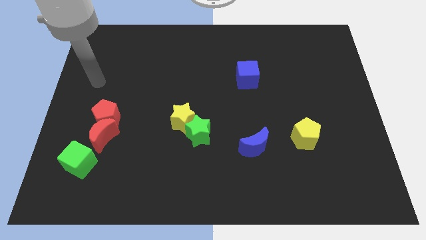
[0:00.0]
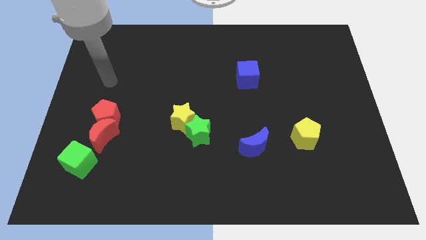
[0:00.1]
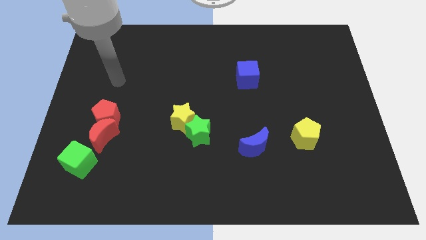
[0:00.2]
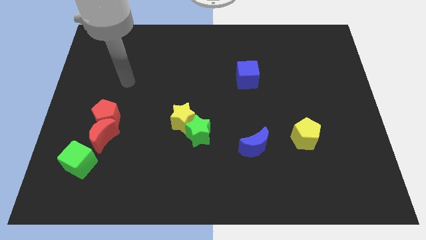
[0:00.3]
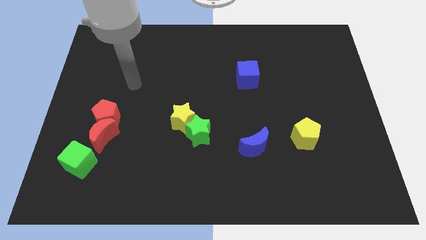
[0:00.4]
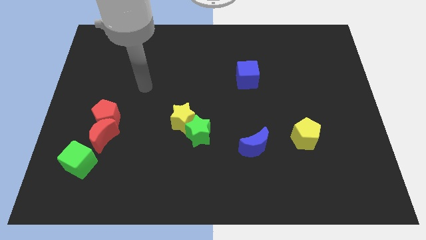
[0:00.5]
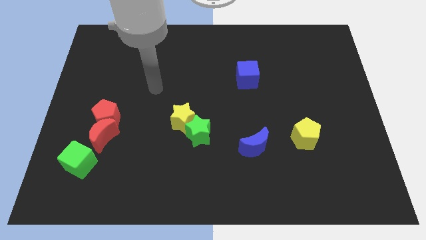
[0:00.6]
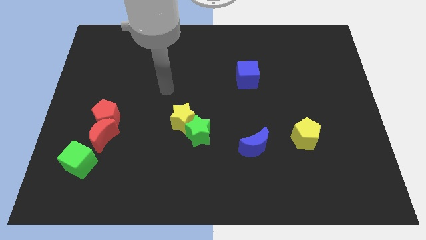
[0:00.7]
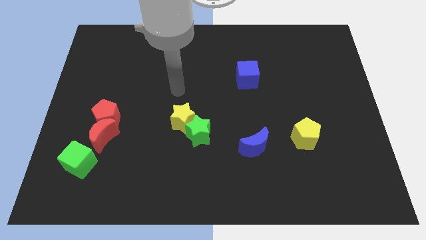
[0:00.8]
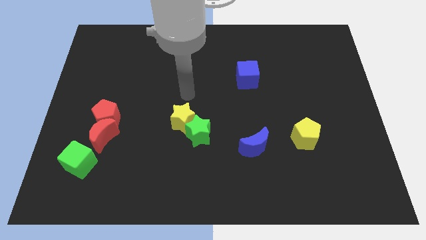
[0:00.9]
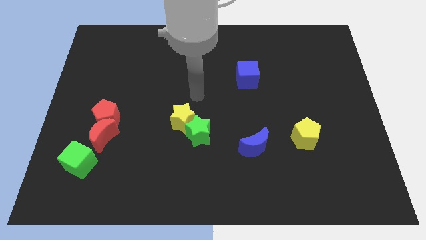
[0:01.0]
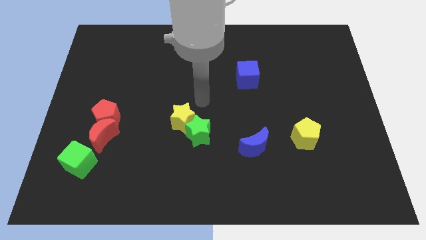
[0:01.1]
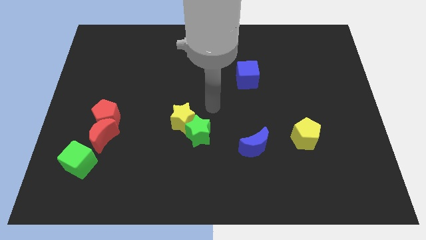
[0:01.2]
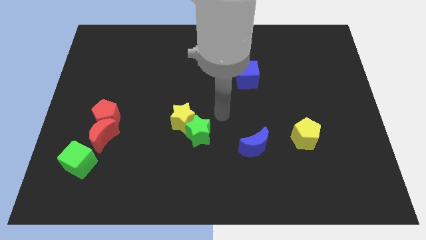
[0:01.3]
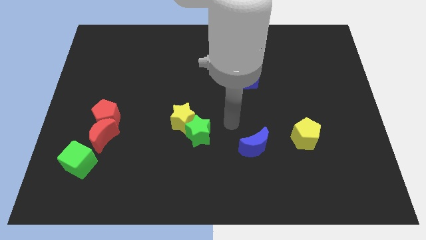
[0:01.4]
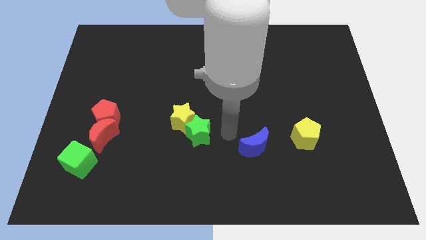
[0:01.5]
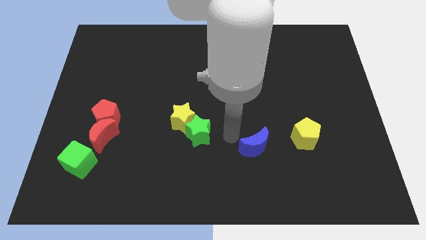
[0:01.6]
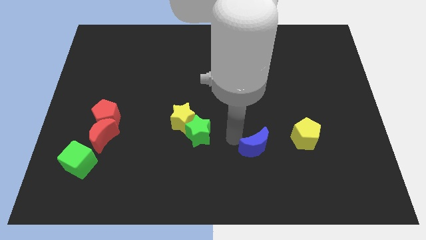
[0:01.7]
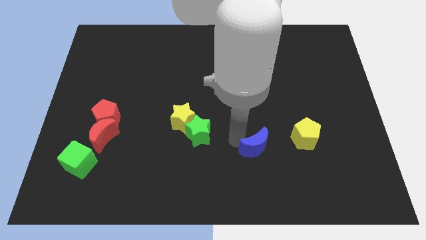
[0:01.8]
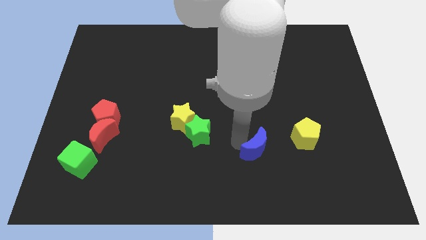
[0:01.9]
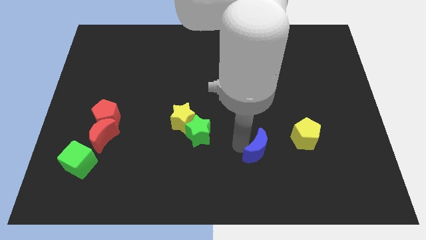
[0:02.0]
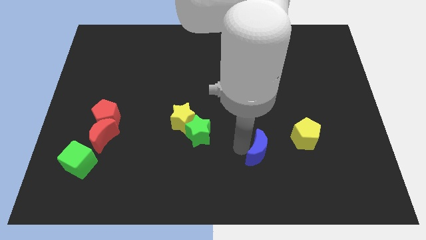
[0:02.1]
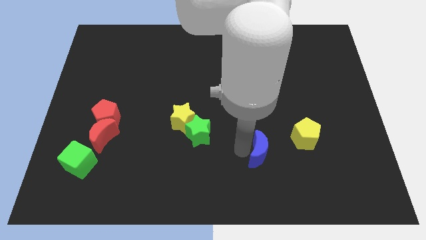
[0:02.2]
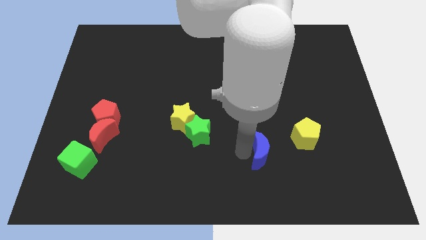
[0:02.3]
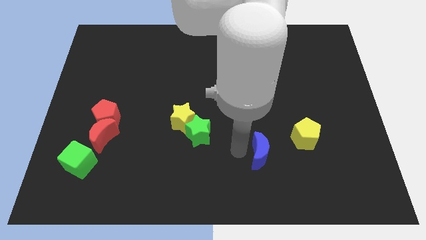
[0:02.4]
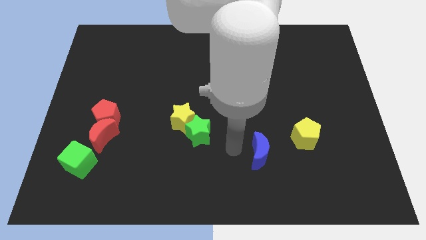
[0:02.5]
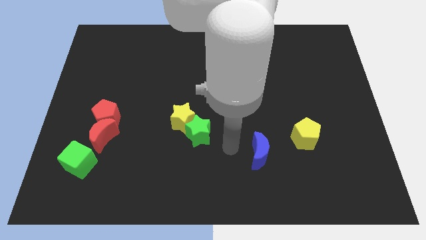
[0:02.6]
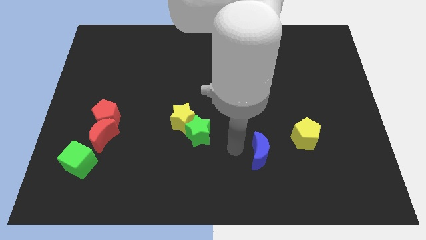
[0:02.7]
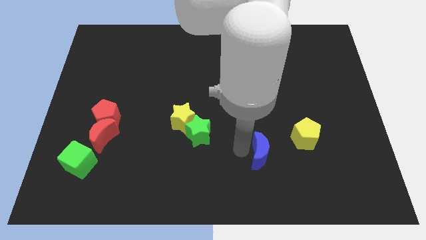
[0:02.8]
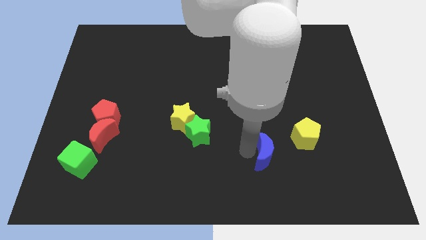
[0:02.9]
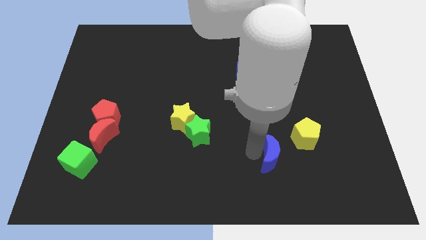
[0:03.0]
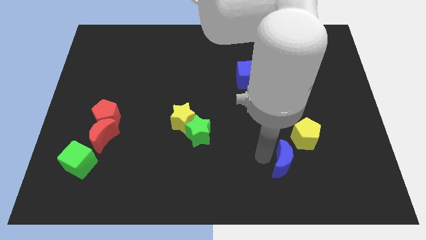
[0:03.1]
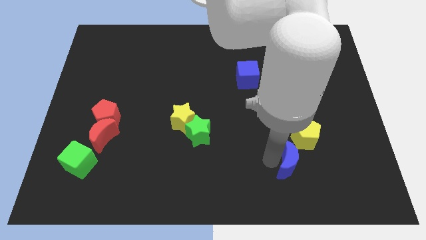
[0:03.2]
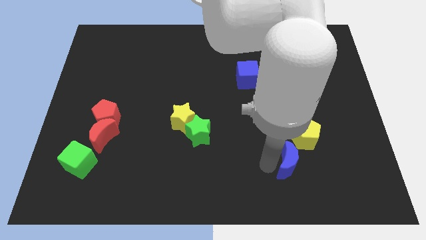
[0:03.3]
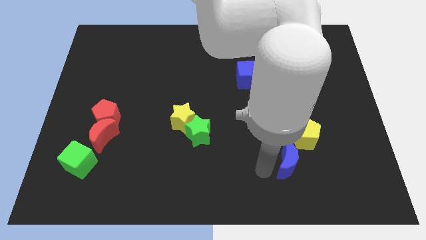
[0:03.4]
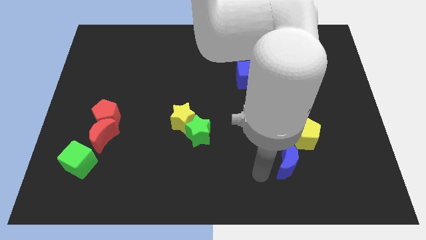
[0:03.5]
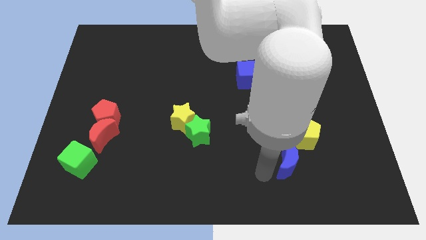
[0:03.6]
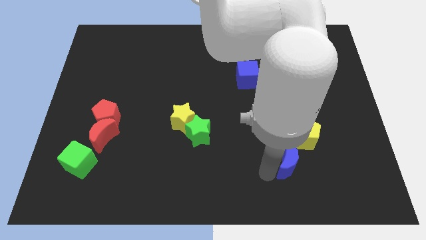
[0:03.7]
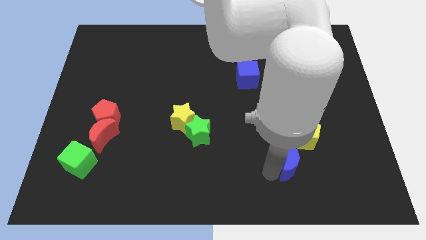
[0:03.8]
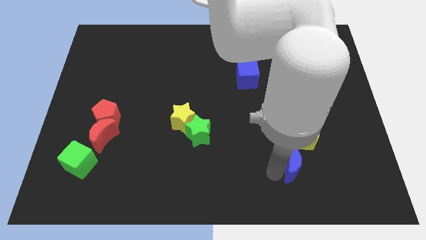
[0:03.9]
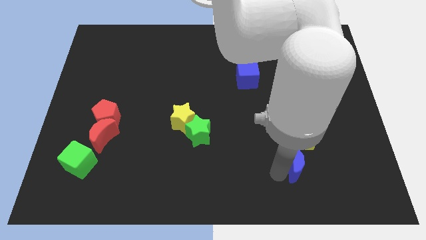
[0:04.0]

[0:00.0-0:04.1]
slightly move the blue moon right

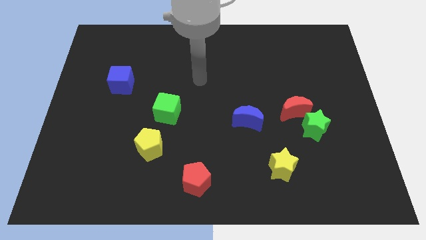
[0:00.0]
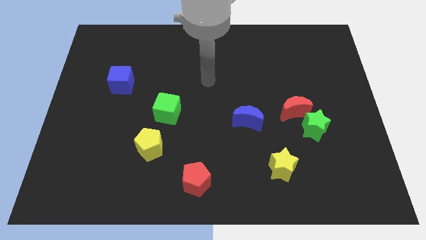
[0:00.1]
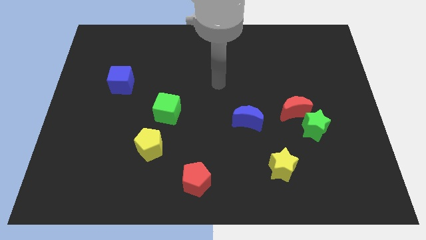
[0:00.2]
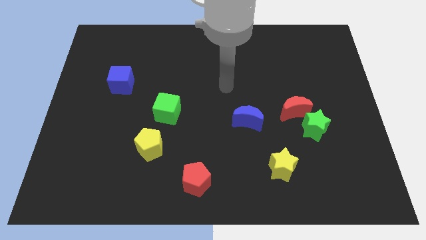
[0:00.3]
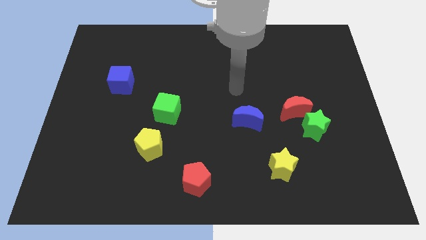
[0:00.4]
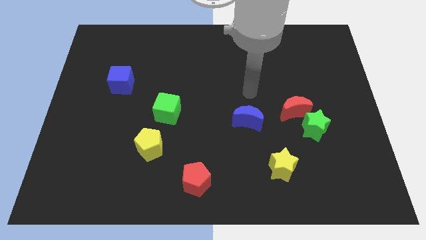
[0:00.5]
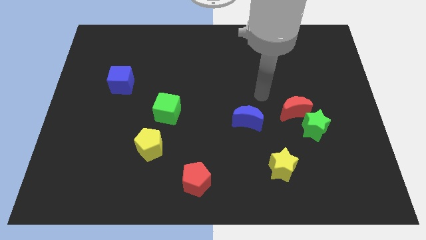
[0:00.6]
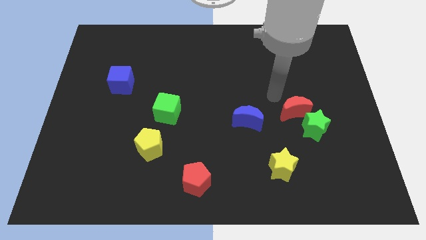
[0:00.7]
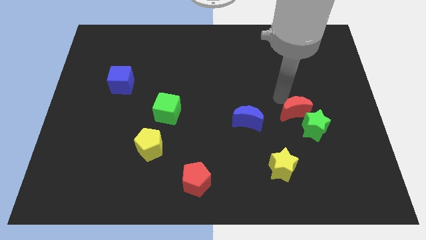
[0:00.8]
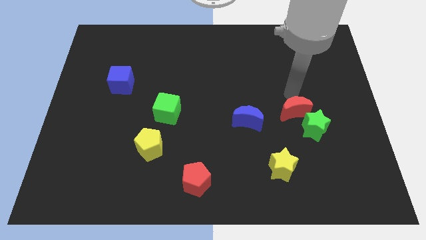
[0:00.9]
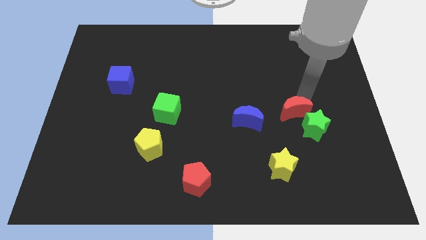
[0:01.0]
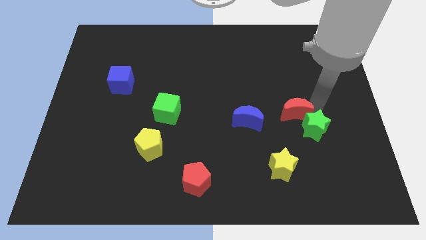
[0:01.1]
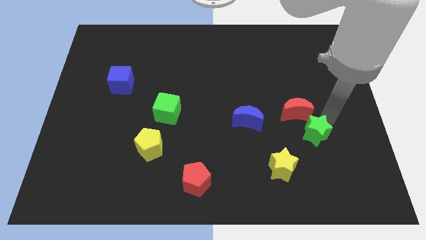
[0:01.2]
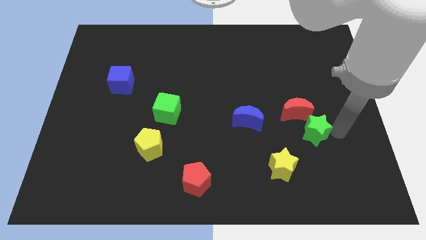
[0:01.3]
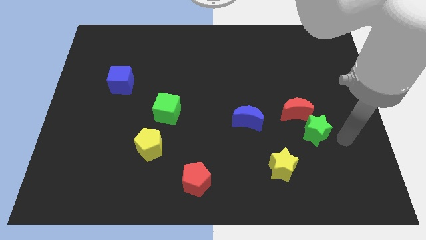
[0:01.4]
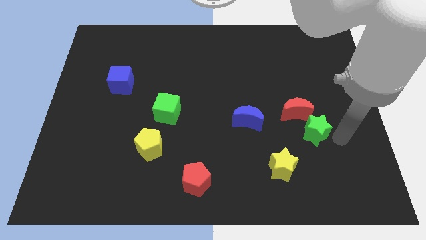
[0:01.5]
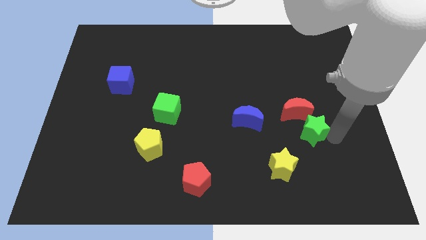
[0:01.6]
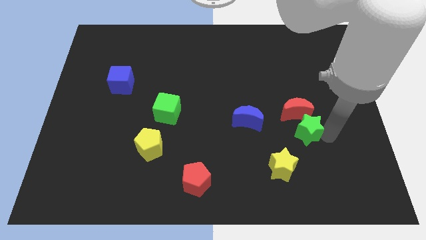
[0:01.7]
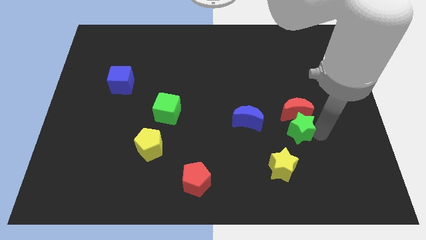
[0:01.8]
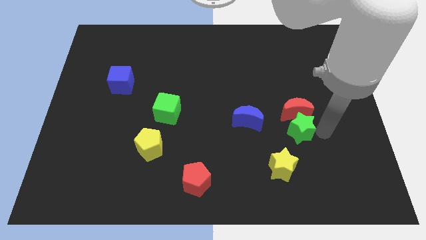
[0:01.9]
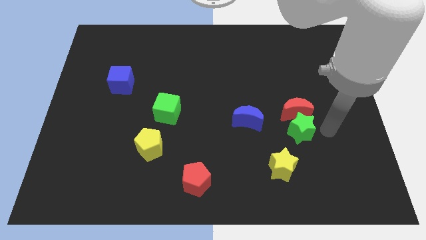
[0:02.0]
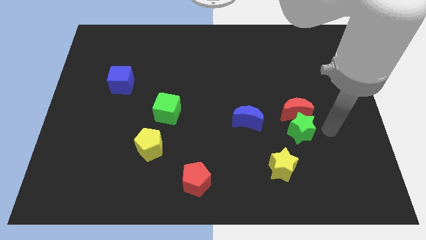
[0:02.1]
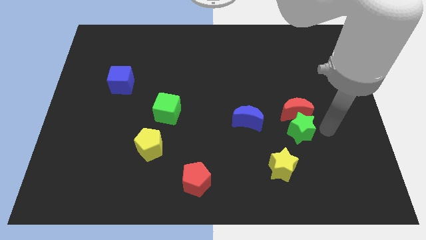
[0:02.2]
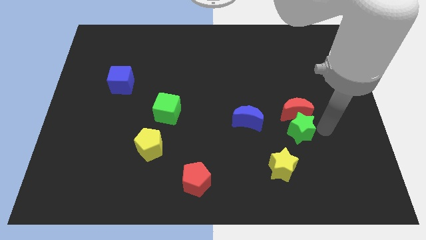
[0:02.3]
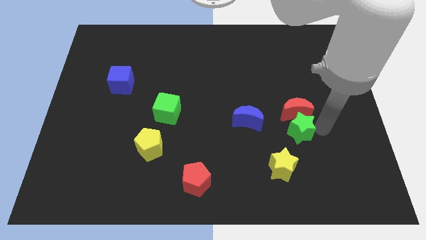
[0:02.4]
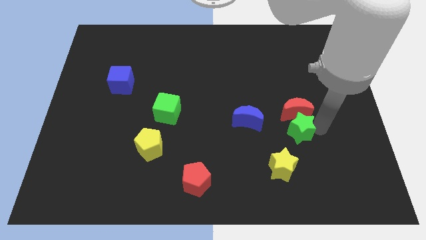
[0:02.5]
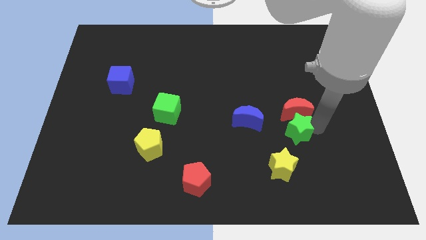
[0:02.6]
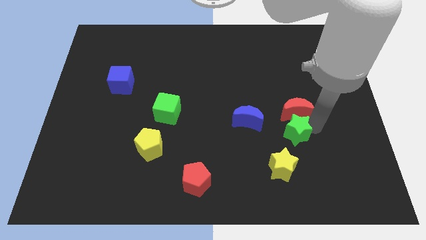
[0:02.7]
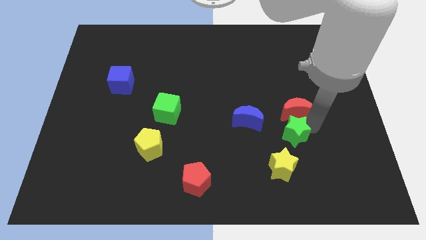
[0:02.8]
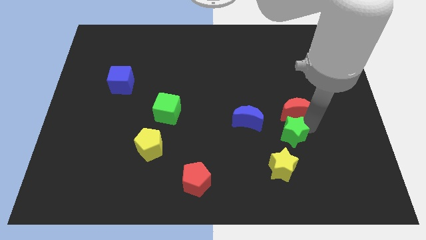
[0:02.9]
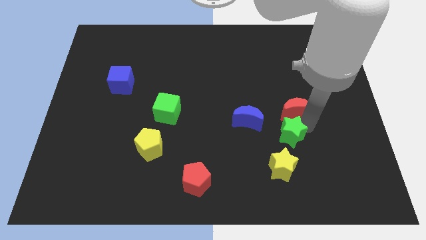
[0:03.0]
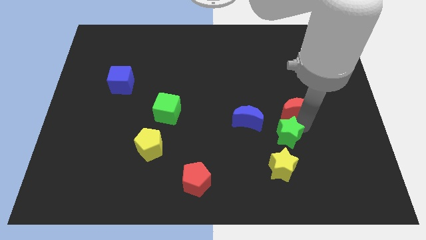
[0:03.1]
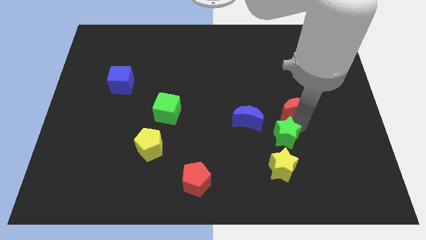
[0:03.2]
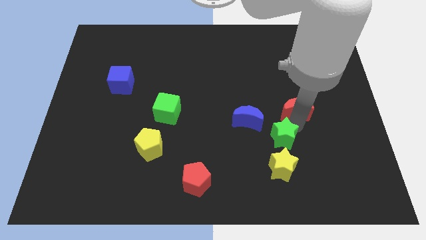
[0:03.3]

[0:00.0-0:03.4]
move the green star somewhat to the left

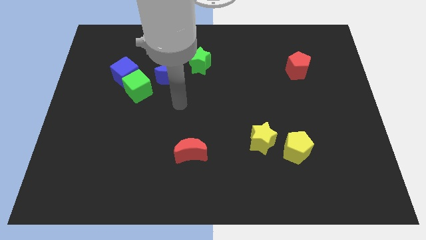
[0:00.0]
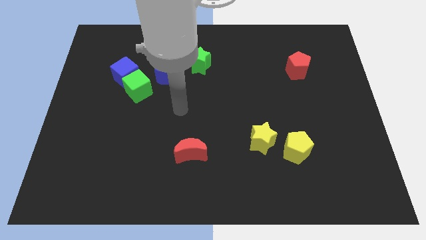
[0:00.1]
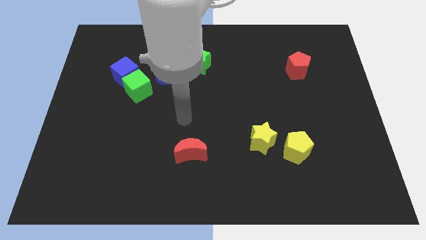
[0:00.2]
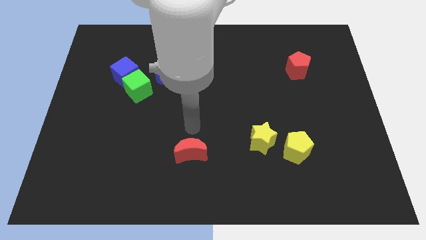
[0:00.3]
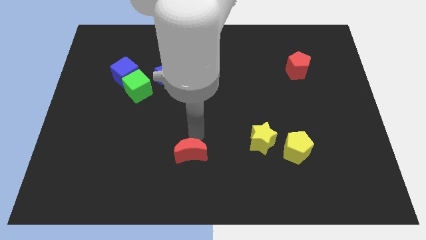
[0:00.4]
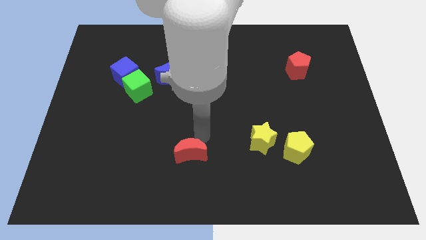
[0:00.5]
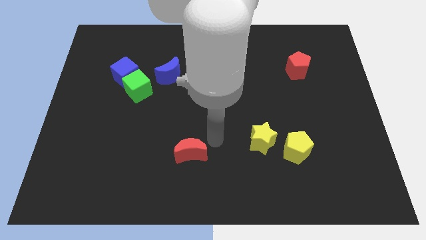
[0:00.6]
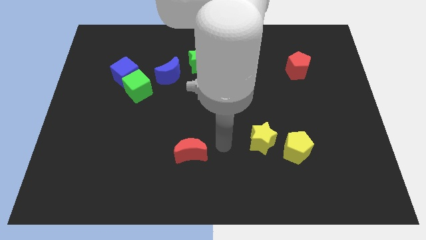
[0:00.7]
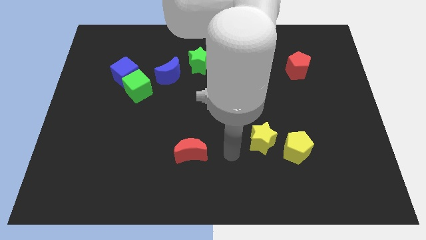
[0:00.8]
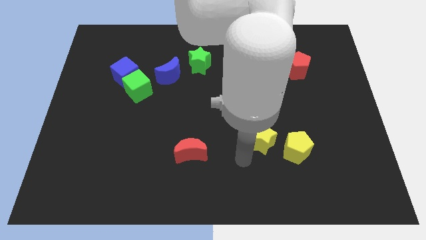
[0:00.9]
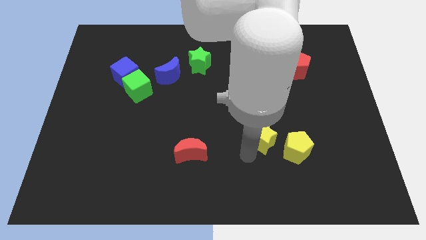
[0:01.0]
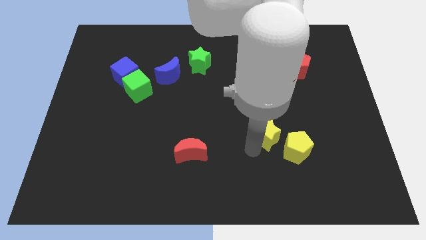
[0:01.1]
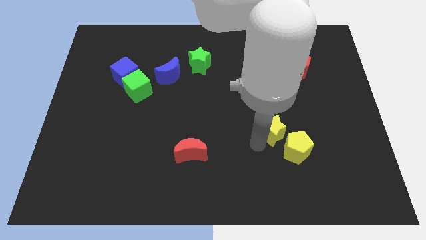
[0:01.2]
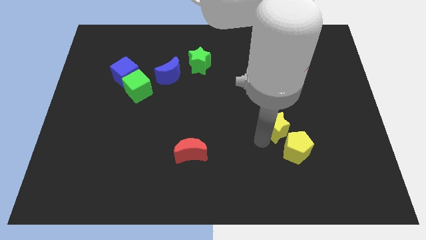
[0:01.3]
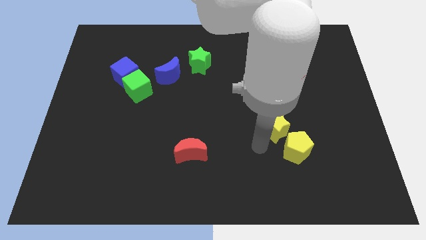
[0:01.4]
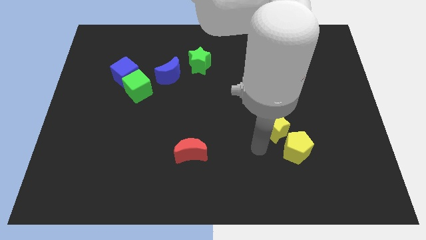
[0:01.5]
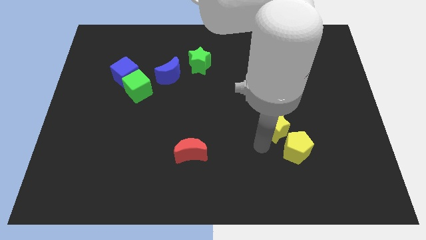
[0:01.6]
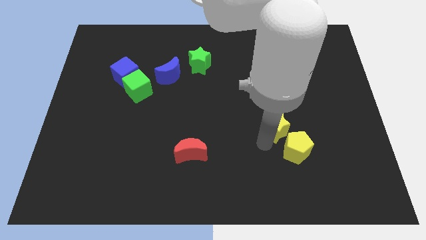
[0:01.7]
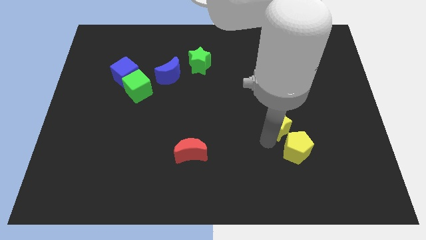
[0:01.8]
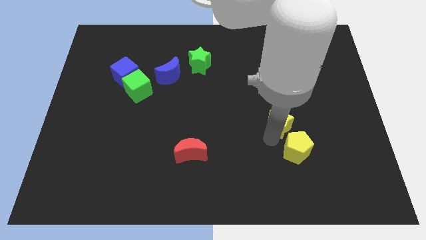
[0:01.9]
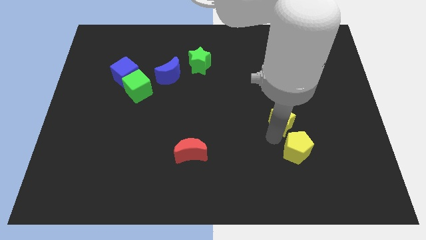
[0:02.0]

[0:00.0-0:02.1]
move the yellow star slightly diagonally upwards and to the right
